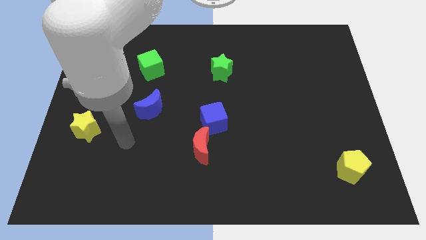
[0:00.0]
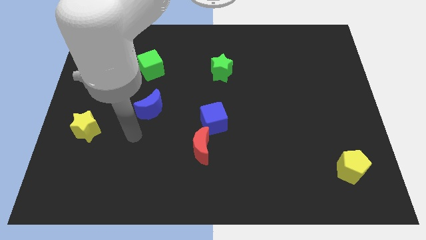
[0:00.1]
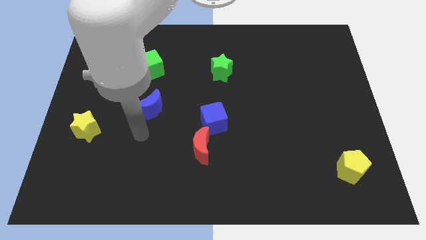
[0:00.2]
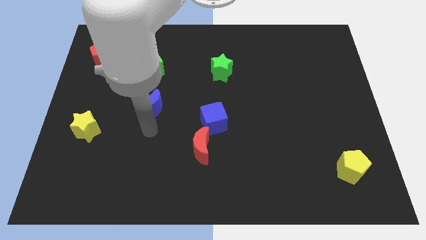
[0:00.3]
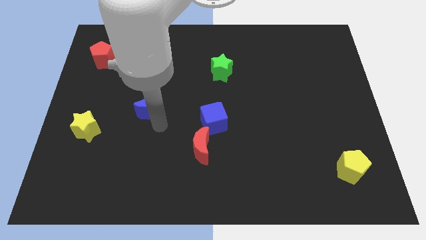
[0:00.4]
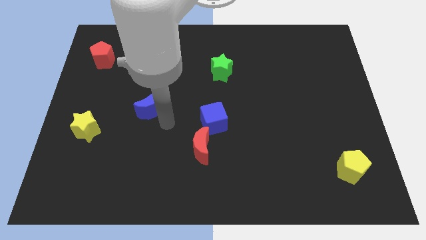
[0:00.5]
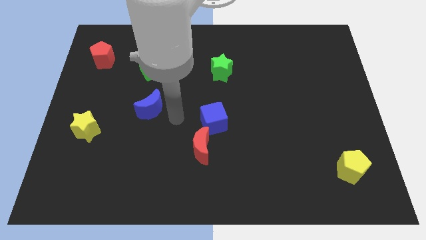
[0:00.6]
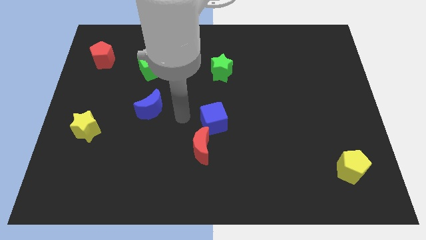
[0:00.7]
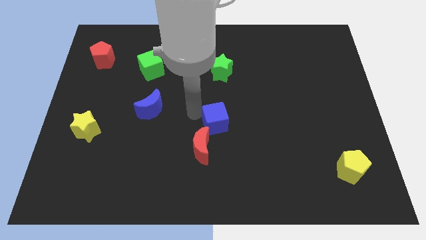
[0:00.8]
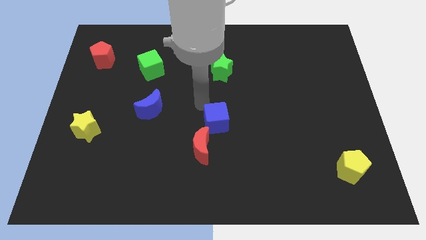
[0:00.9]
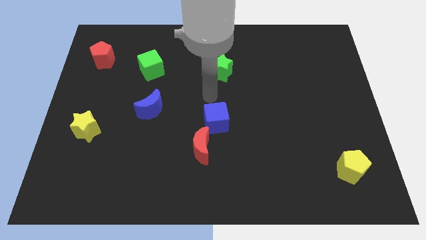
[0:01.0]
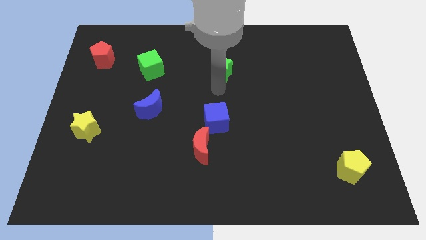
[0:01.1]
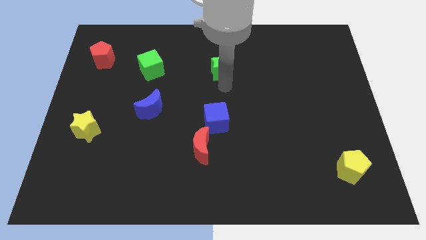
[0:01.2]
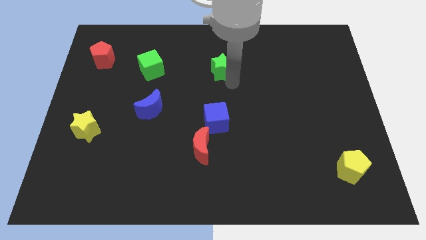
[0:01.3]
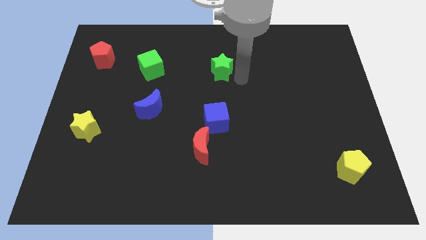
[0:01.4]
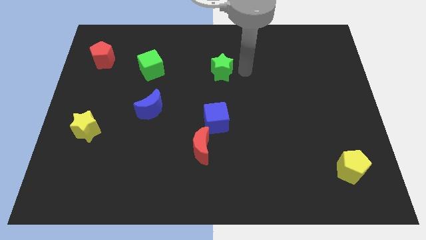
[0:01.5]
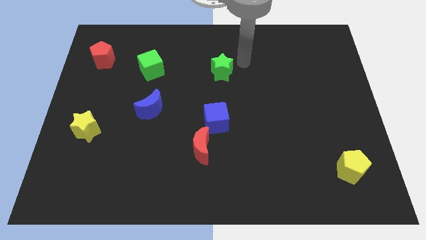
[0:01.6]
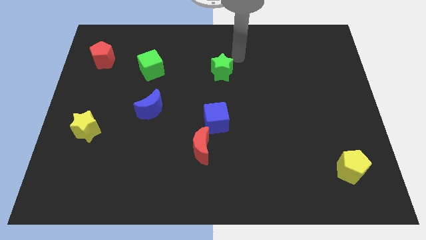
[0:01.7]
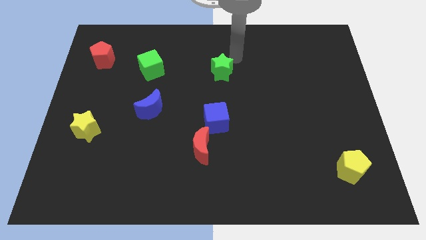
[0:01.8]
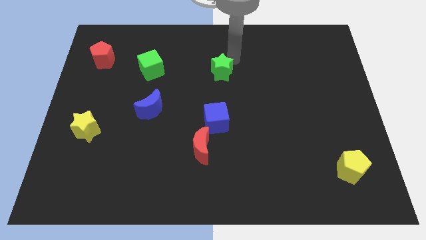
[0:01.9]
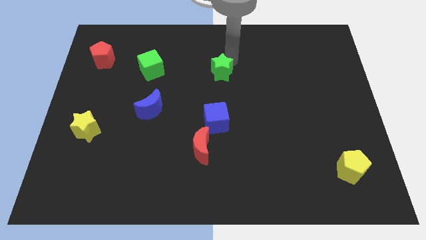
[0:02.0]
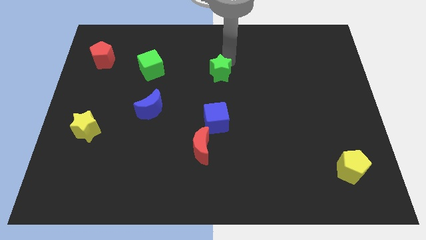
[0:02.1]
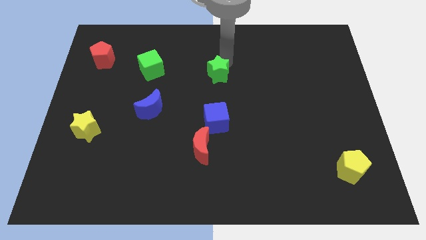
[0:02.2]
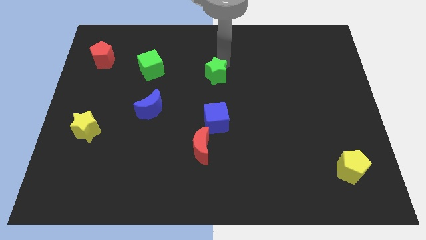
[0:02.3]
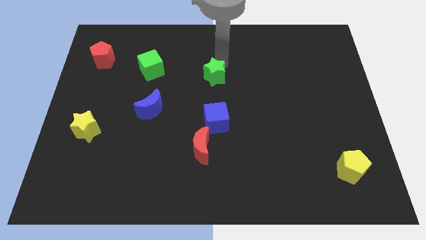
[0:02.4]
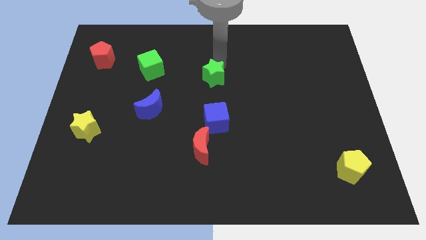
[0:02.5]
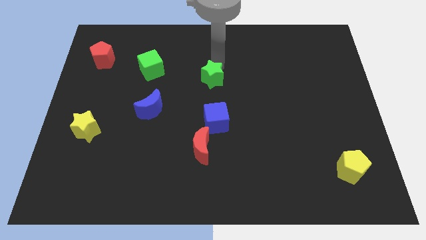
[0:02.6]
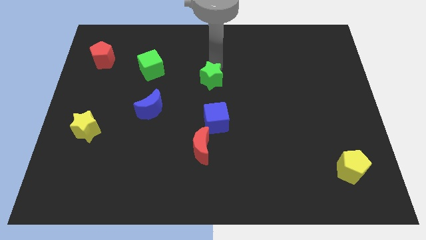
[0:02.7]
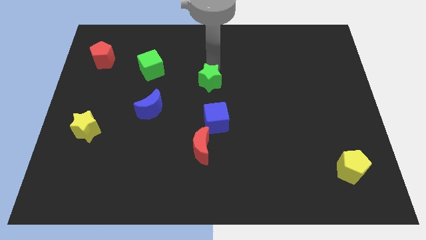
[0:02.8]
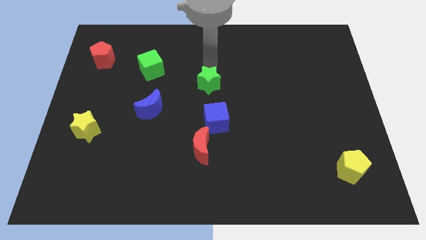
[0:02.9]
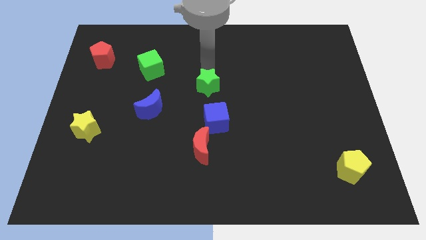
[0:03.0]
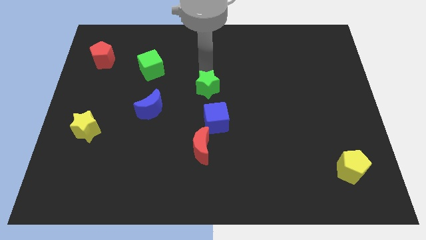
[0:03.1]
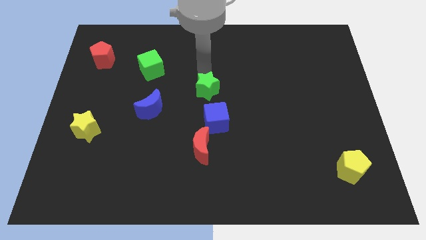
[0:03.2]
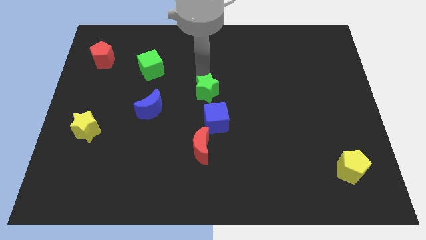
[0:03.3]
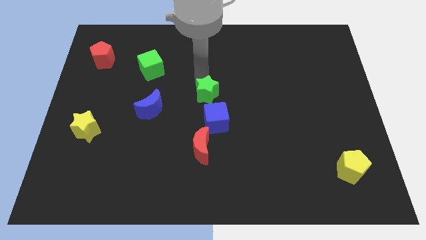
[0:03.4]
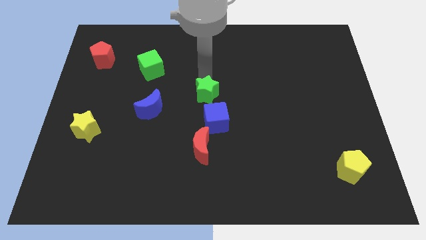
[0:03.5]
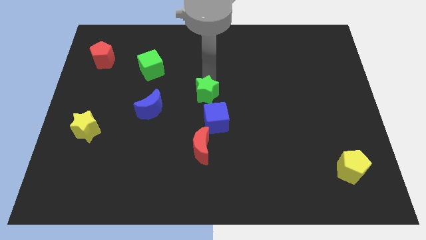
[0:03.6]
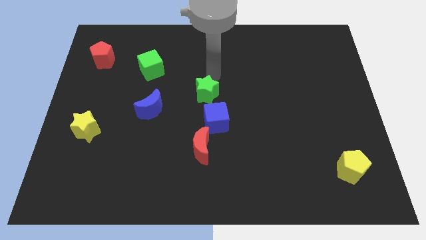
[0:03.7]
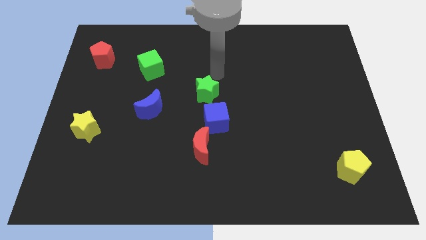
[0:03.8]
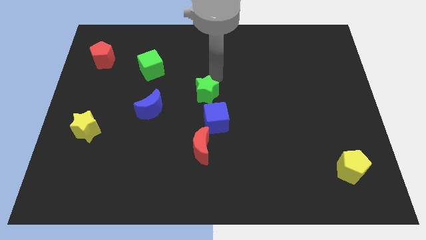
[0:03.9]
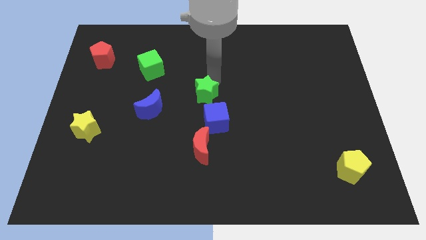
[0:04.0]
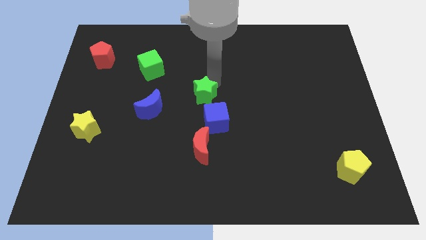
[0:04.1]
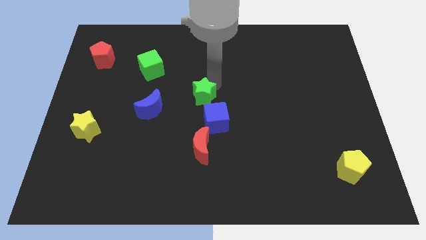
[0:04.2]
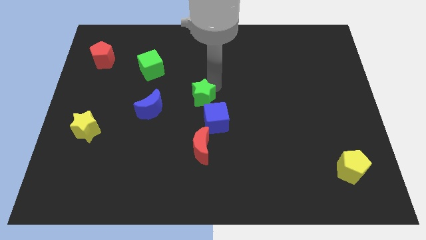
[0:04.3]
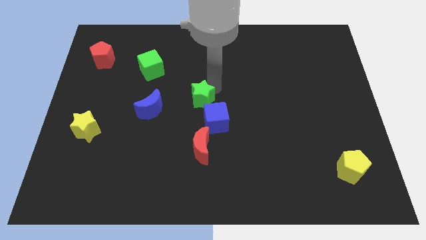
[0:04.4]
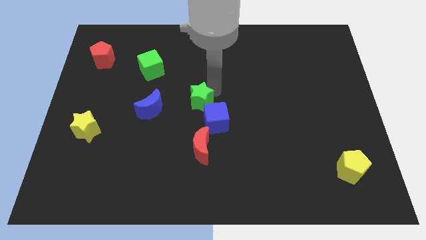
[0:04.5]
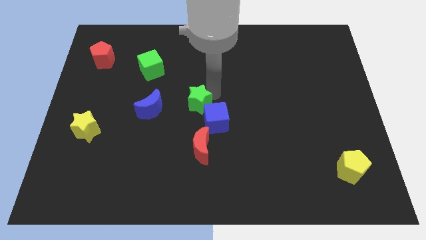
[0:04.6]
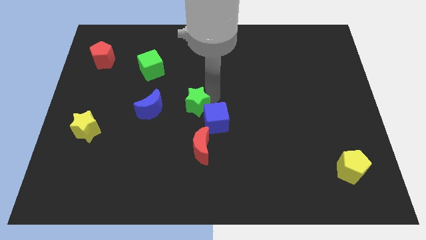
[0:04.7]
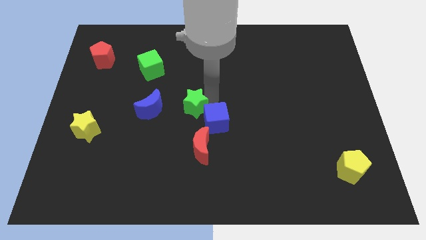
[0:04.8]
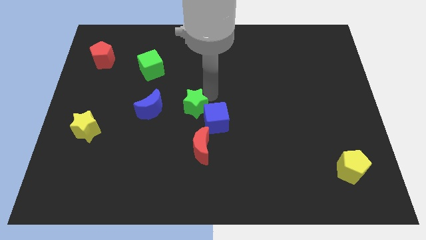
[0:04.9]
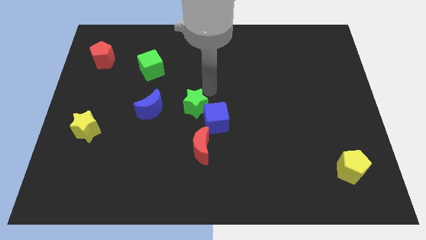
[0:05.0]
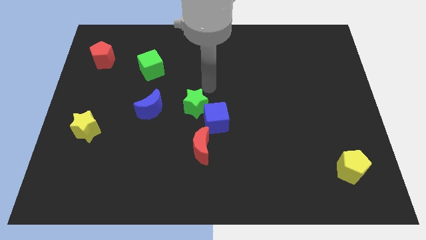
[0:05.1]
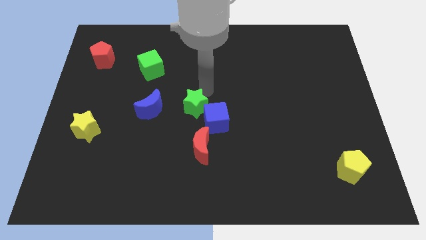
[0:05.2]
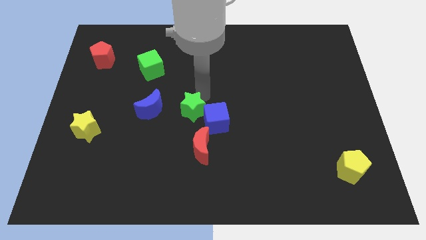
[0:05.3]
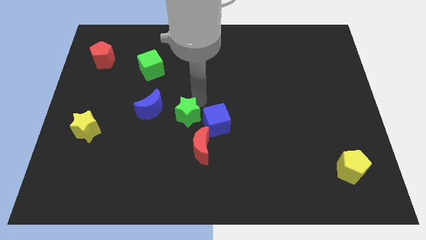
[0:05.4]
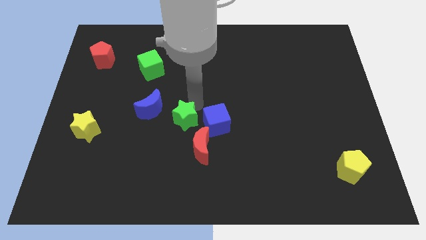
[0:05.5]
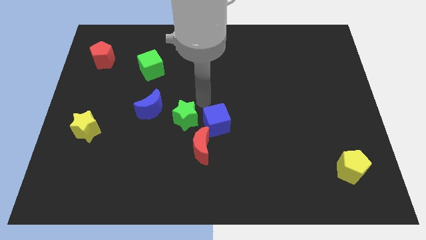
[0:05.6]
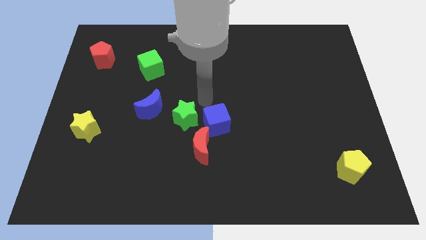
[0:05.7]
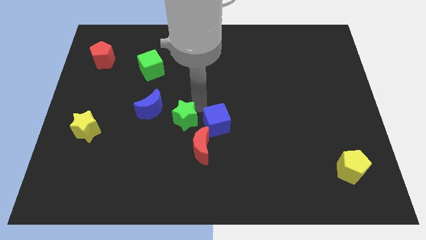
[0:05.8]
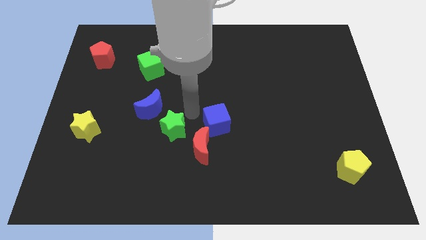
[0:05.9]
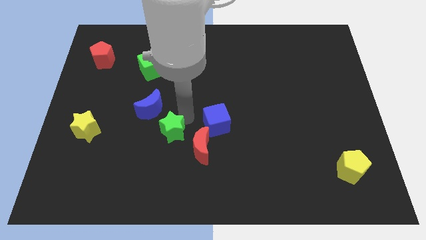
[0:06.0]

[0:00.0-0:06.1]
put the green star just left of the red moon
